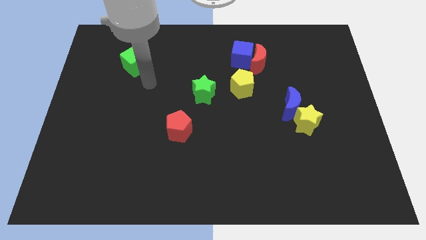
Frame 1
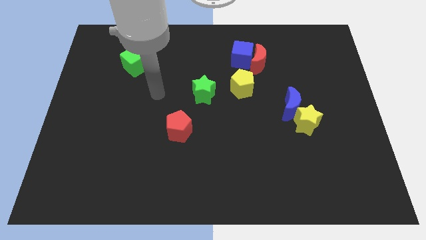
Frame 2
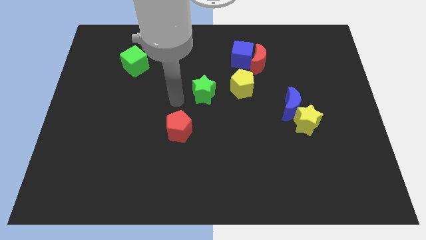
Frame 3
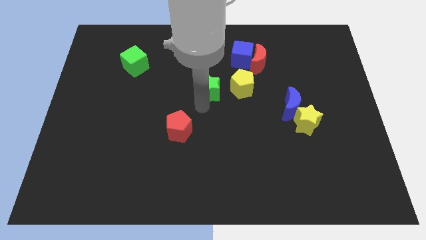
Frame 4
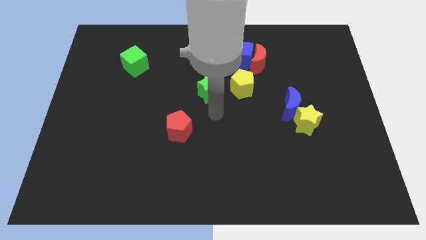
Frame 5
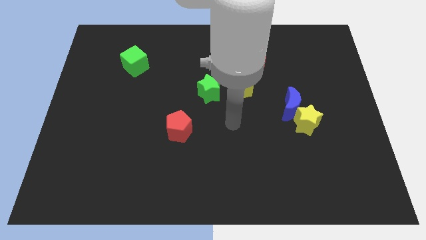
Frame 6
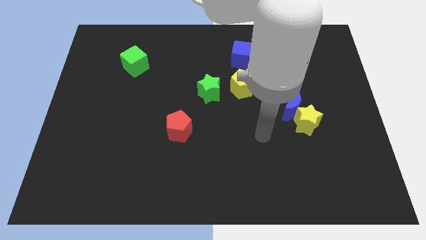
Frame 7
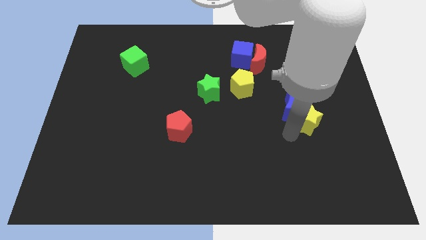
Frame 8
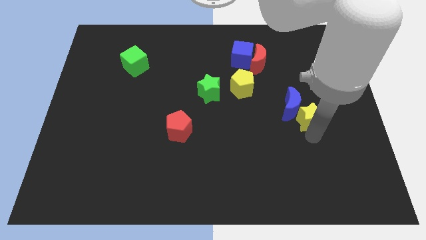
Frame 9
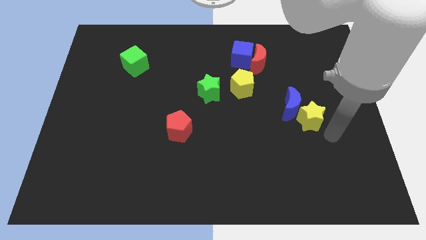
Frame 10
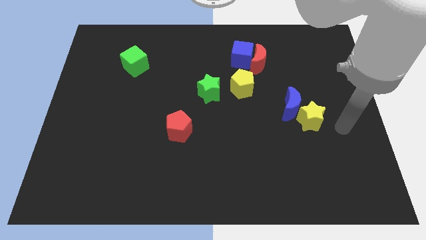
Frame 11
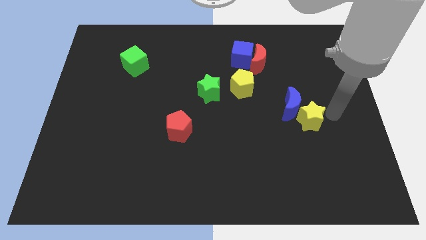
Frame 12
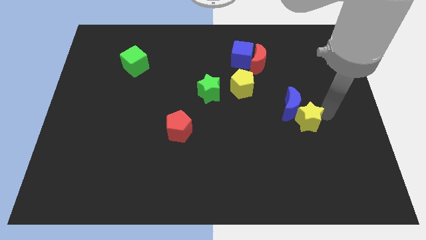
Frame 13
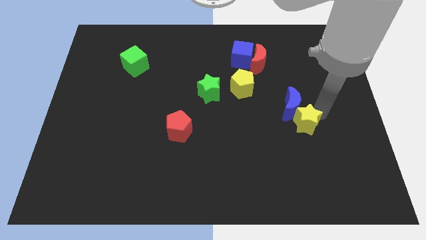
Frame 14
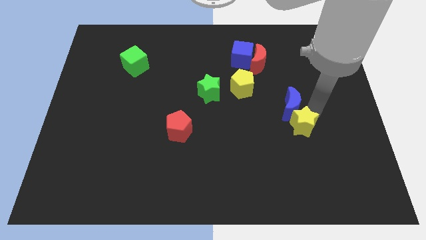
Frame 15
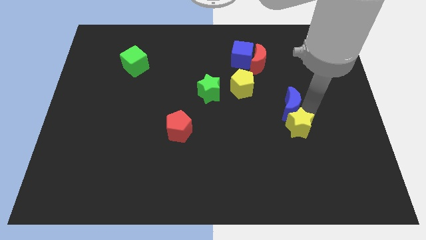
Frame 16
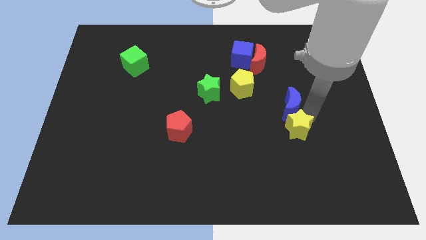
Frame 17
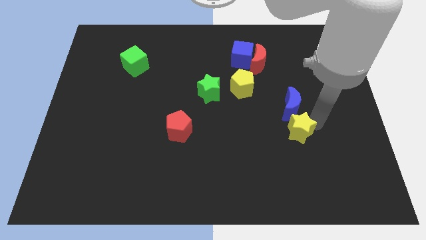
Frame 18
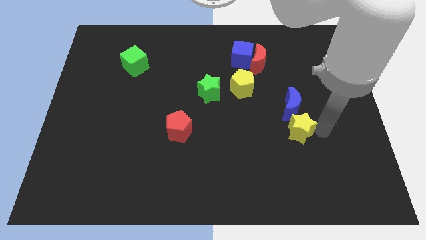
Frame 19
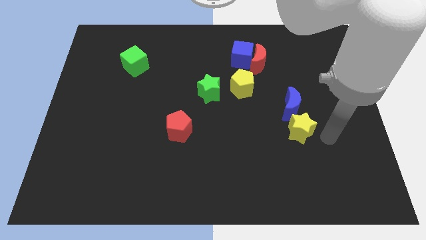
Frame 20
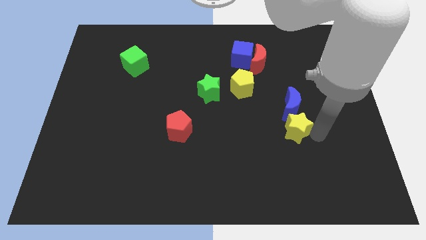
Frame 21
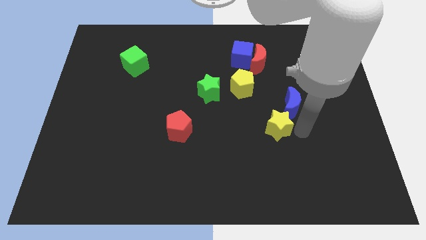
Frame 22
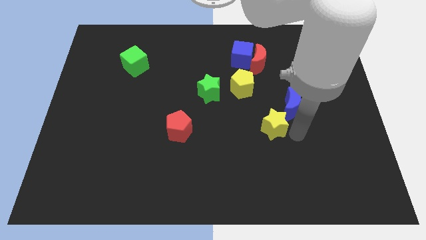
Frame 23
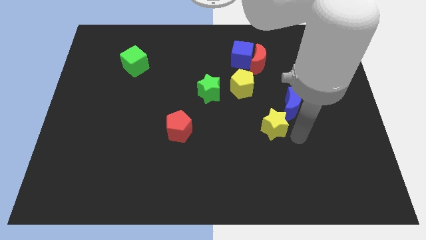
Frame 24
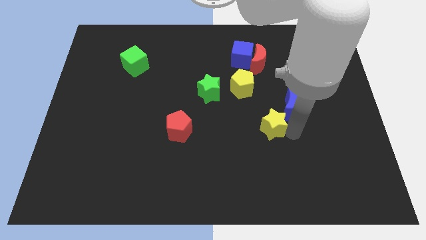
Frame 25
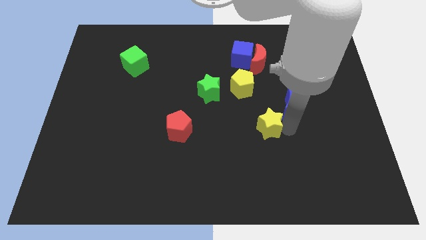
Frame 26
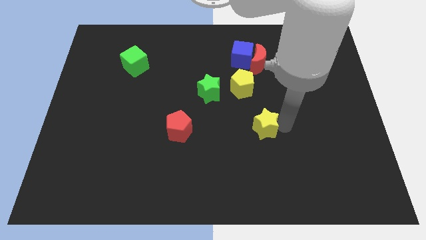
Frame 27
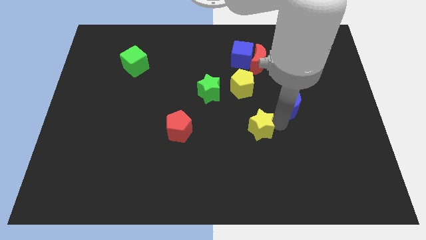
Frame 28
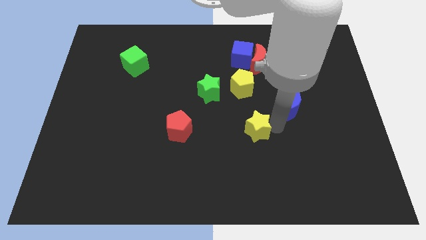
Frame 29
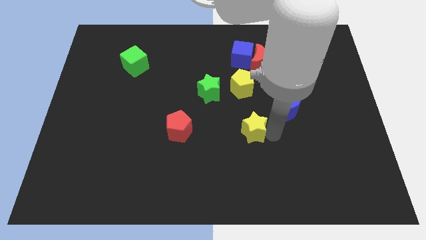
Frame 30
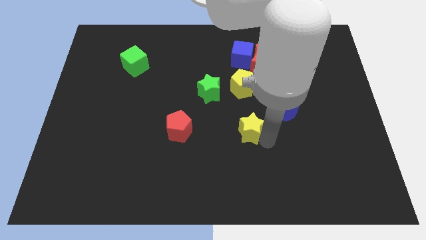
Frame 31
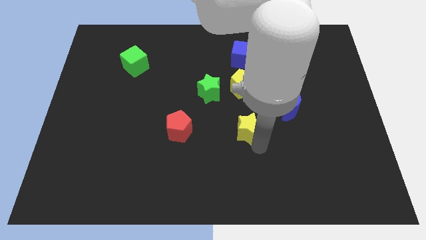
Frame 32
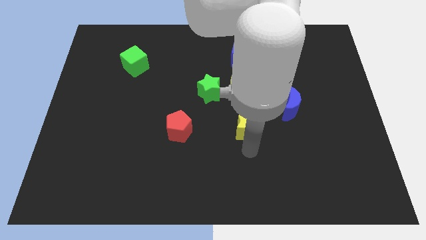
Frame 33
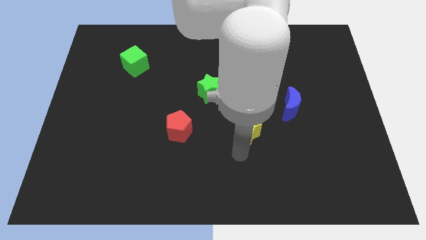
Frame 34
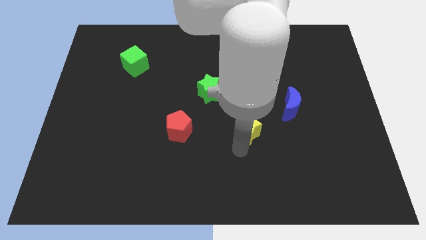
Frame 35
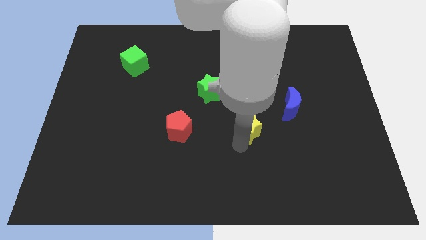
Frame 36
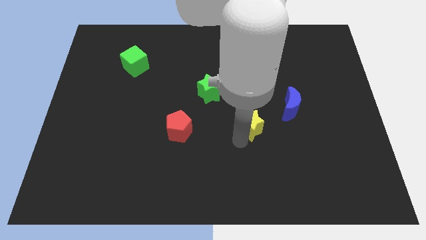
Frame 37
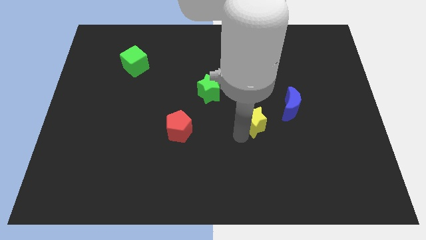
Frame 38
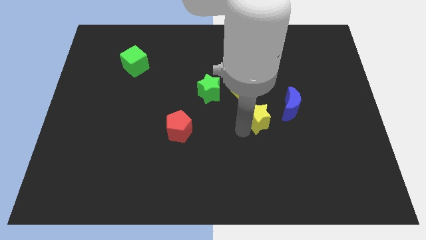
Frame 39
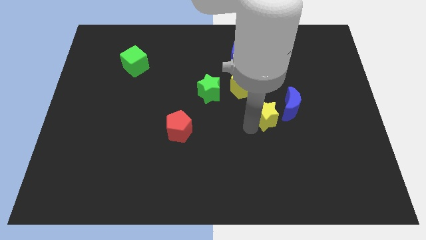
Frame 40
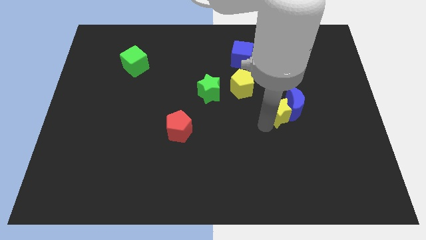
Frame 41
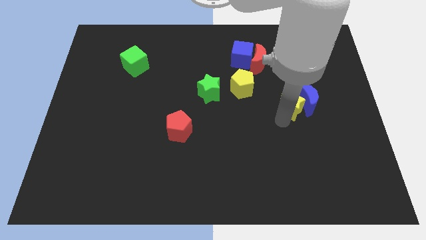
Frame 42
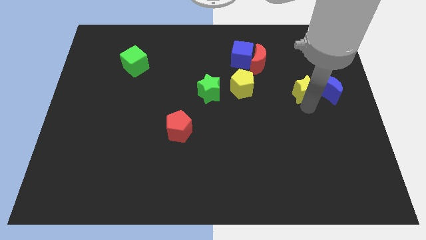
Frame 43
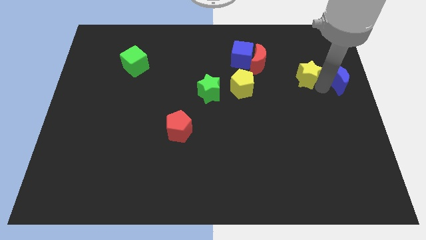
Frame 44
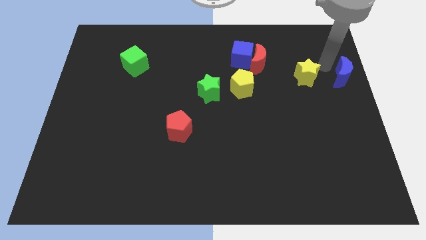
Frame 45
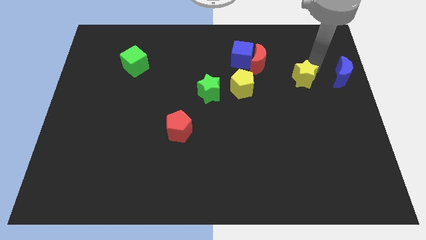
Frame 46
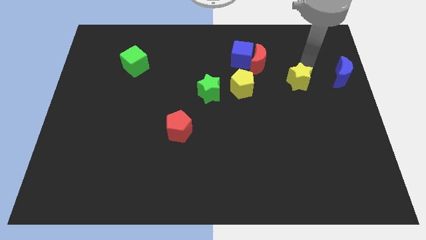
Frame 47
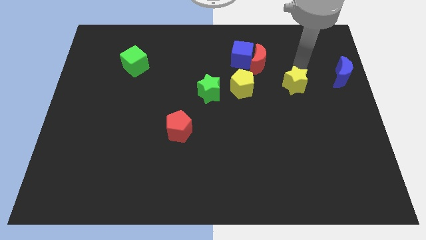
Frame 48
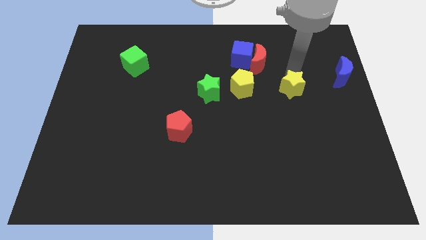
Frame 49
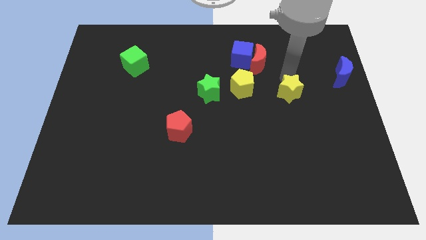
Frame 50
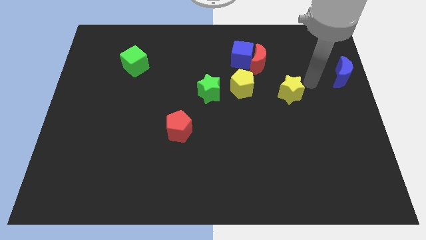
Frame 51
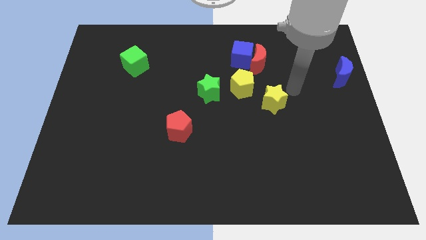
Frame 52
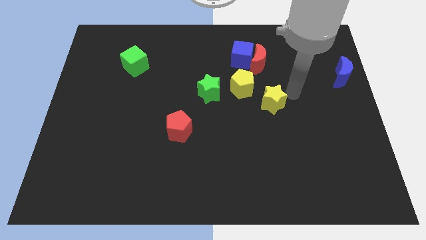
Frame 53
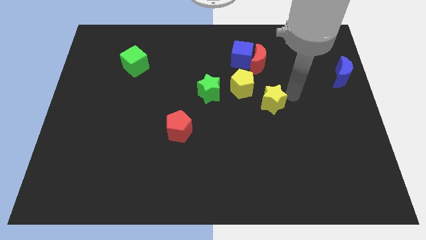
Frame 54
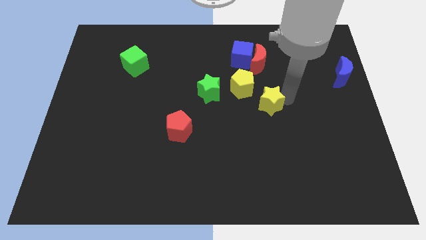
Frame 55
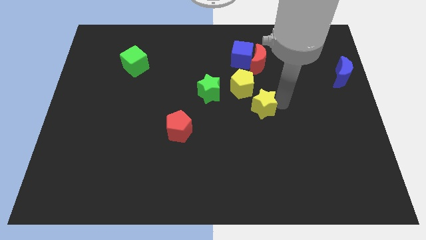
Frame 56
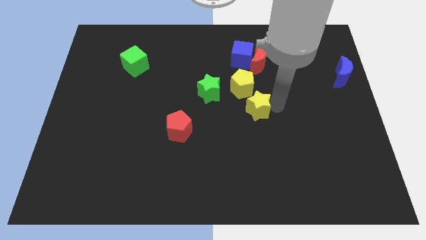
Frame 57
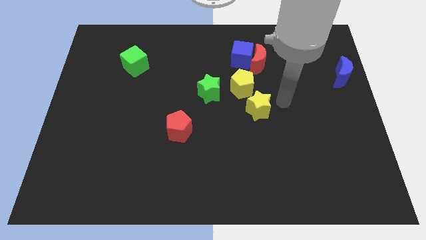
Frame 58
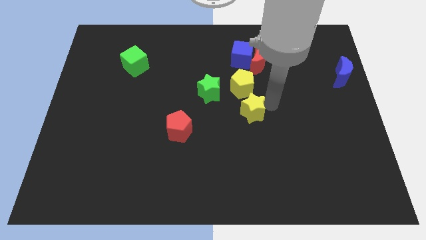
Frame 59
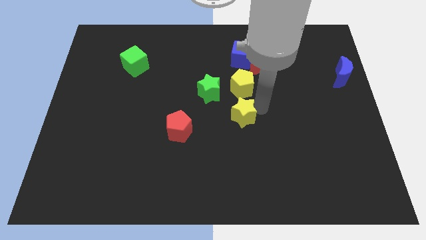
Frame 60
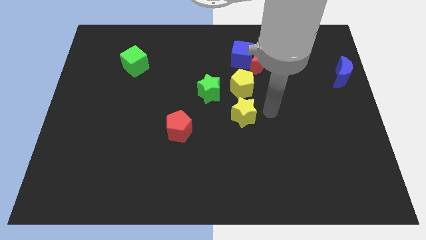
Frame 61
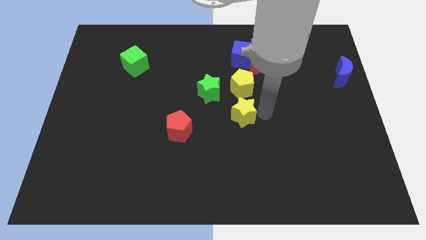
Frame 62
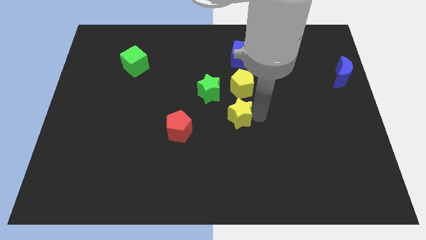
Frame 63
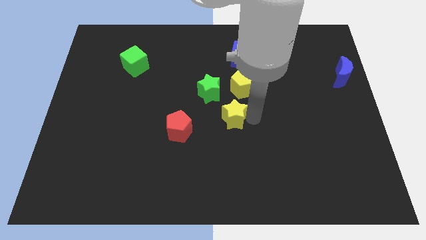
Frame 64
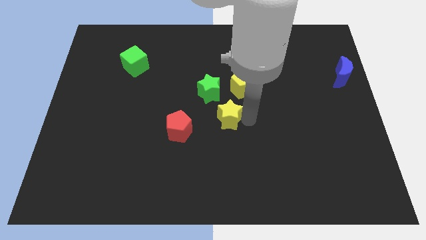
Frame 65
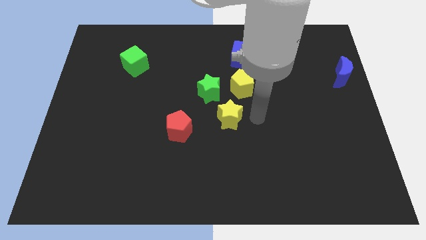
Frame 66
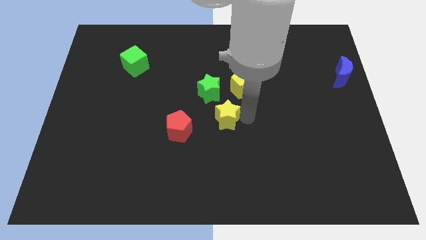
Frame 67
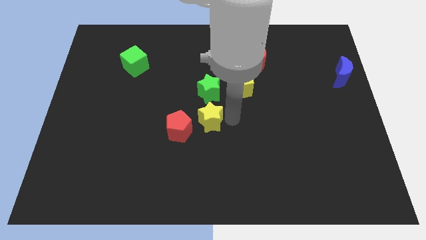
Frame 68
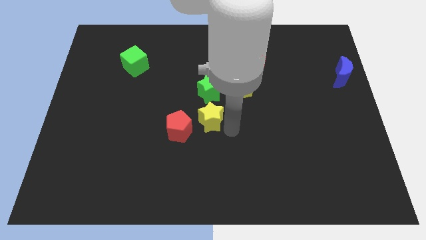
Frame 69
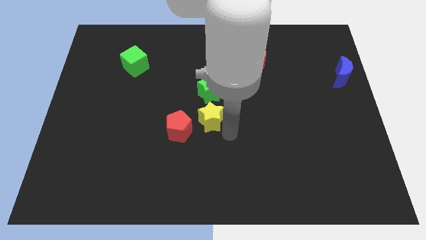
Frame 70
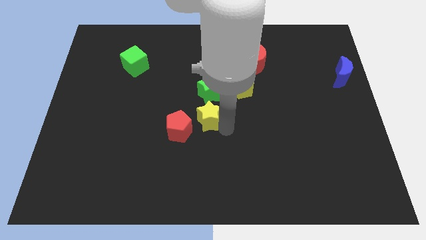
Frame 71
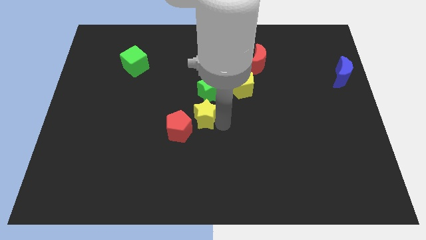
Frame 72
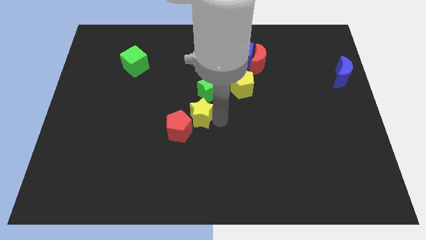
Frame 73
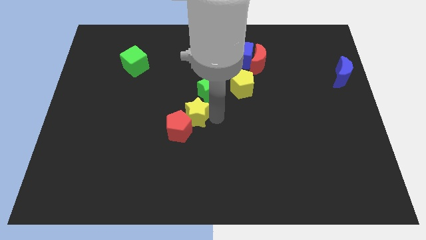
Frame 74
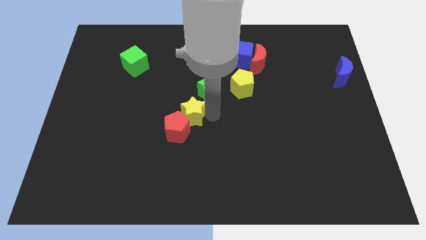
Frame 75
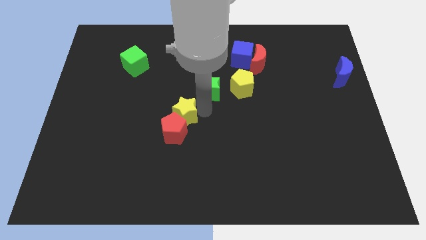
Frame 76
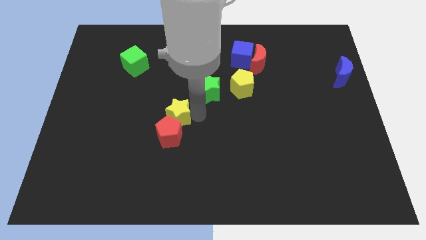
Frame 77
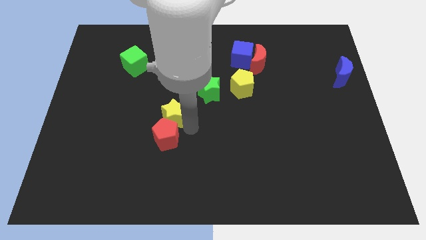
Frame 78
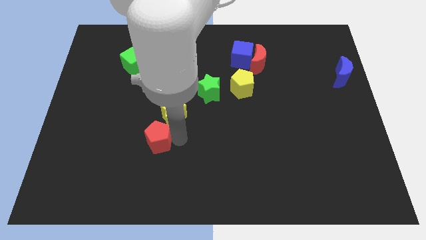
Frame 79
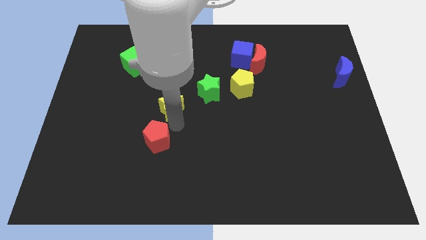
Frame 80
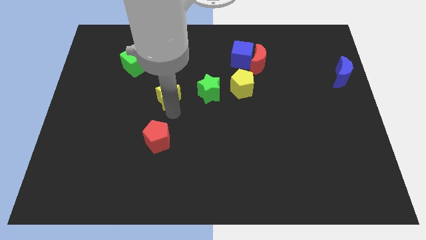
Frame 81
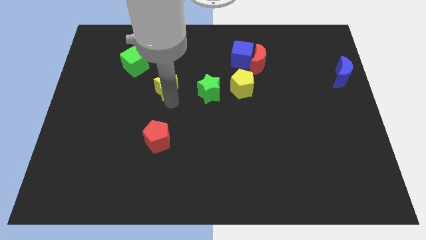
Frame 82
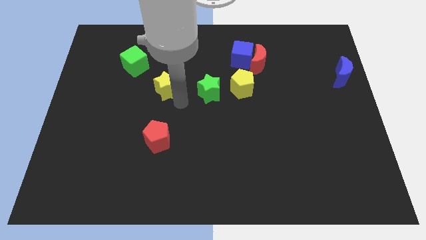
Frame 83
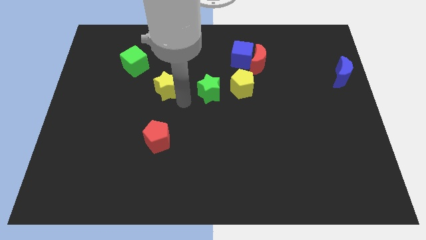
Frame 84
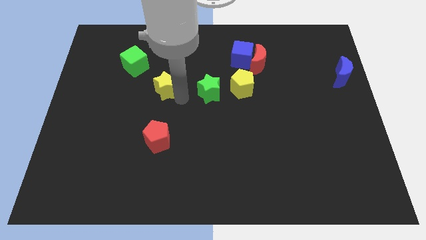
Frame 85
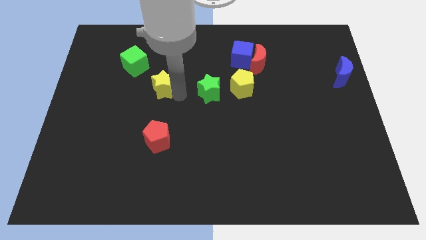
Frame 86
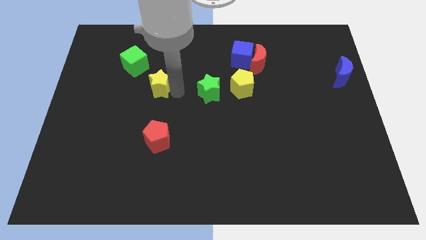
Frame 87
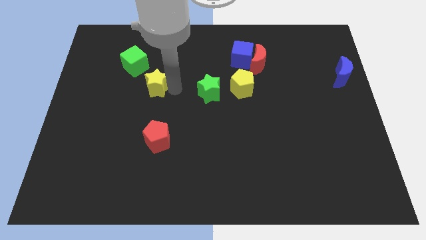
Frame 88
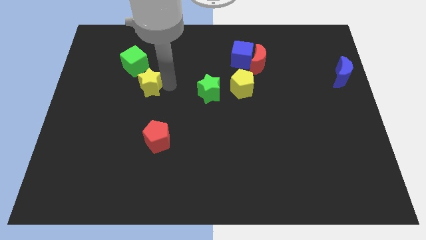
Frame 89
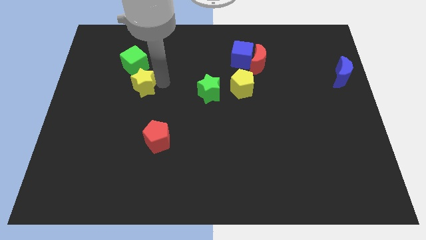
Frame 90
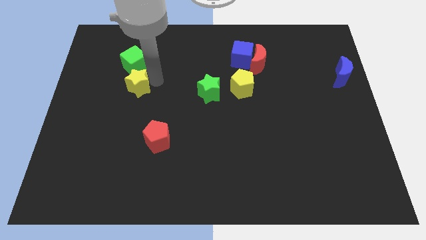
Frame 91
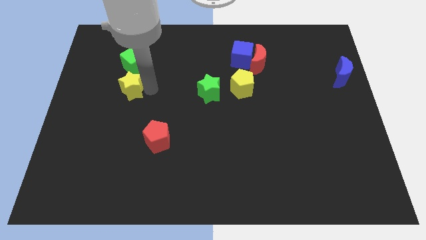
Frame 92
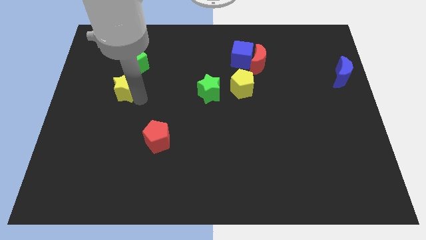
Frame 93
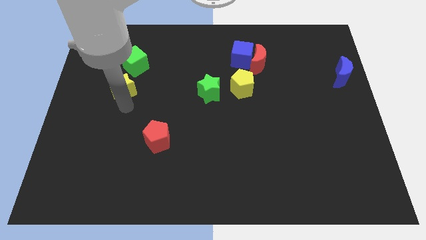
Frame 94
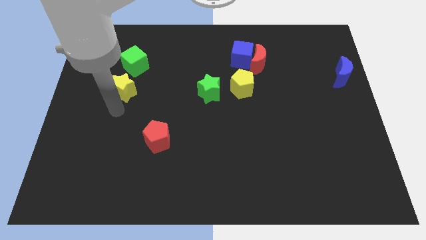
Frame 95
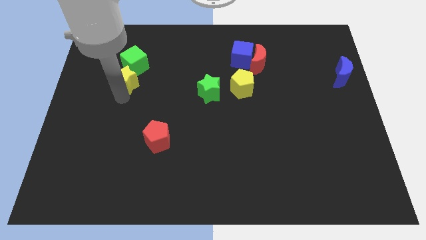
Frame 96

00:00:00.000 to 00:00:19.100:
slide the yellow star towards the green cube
